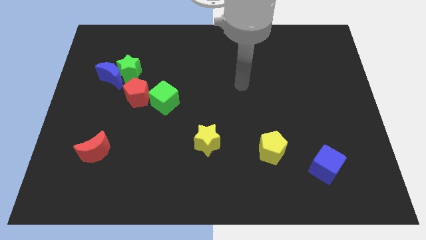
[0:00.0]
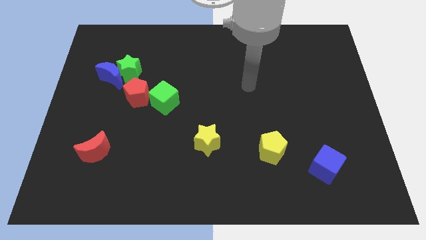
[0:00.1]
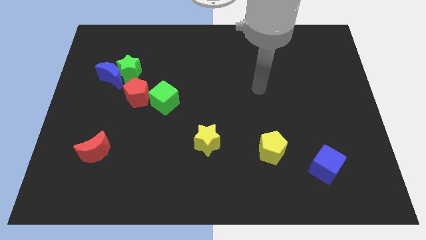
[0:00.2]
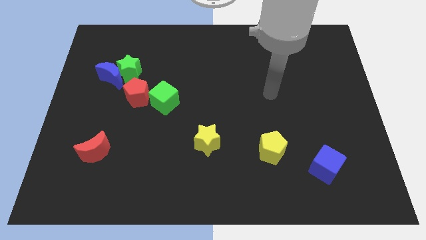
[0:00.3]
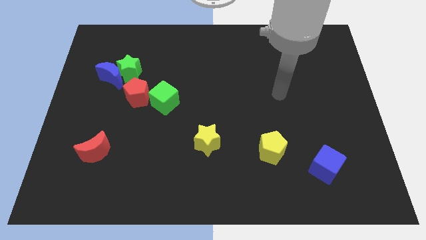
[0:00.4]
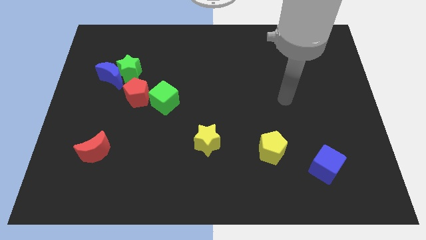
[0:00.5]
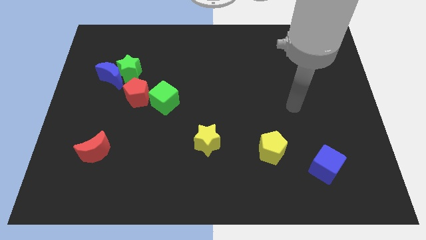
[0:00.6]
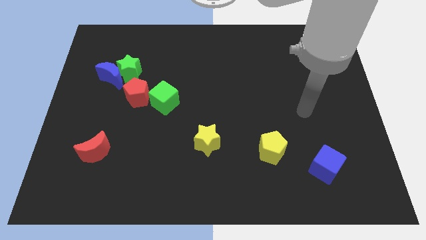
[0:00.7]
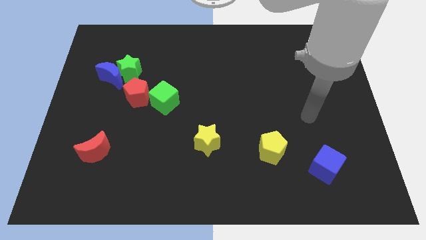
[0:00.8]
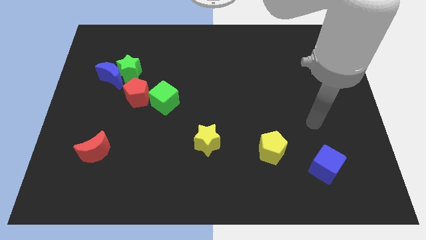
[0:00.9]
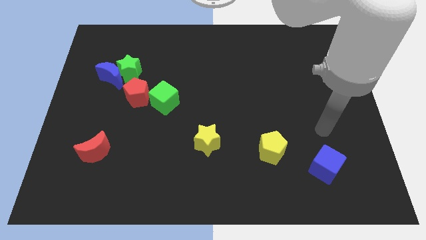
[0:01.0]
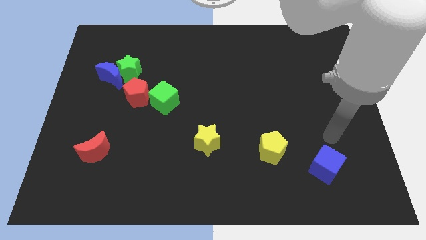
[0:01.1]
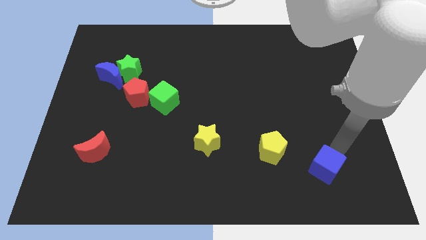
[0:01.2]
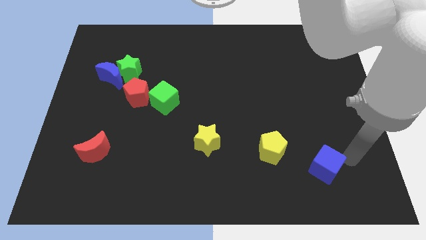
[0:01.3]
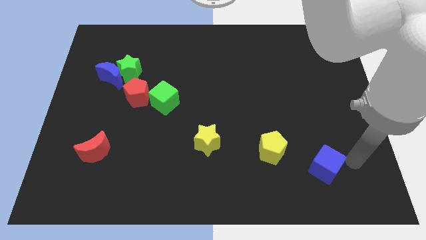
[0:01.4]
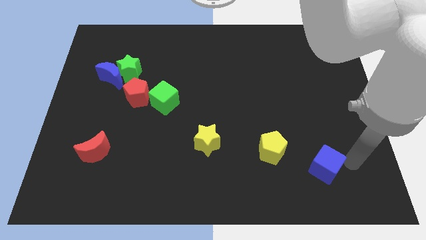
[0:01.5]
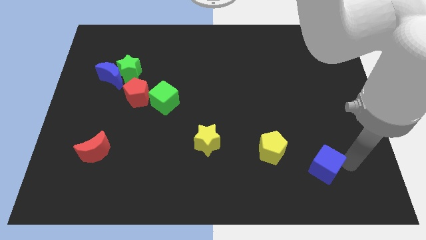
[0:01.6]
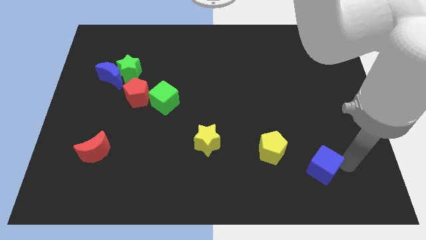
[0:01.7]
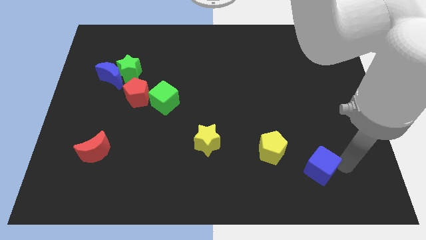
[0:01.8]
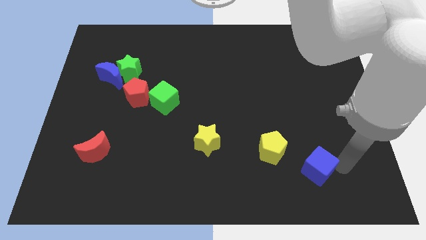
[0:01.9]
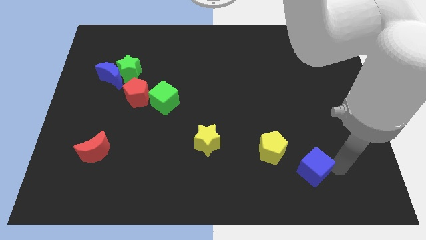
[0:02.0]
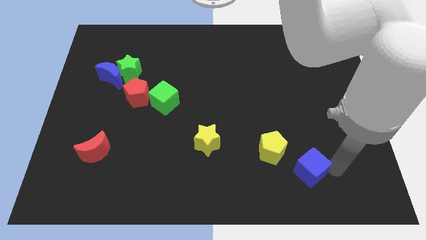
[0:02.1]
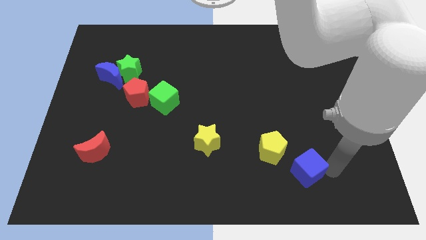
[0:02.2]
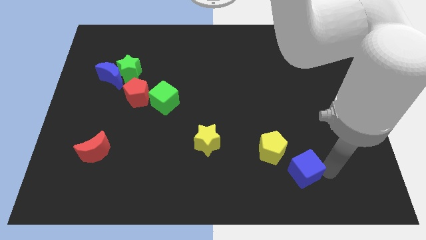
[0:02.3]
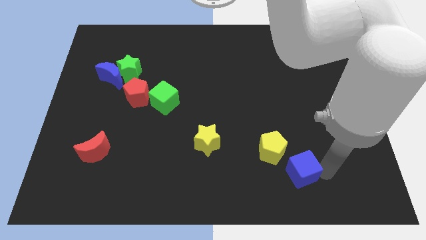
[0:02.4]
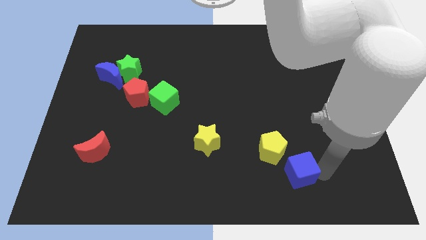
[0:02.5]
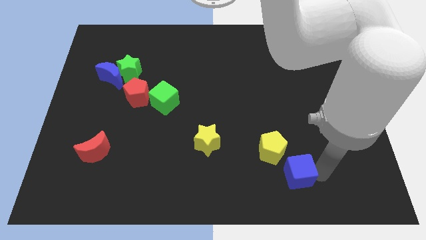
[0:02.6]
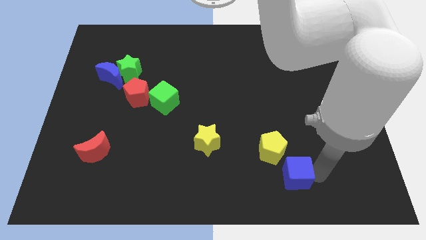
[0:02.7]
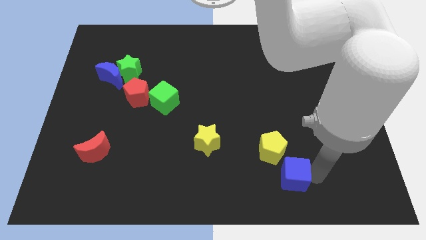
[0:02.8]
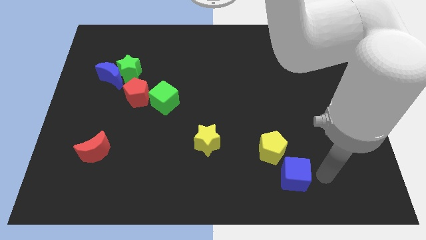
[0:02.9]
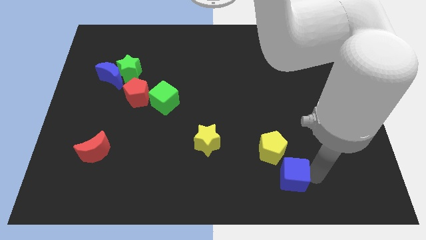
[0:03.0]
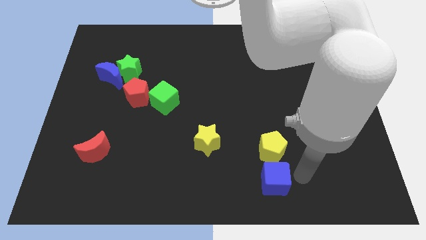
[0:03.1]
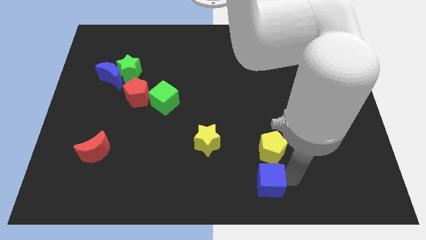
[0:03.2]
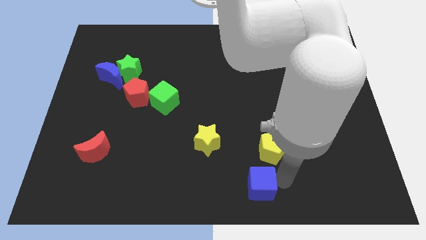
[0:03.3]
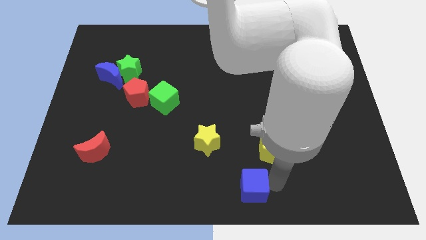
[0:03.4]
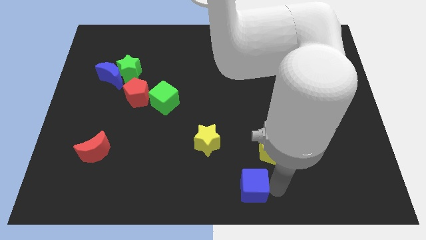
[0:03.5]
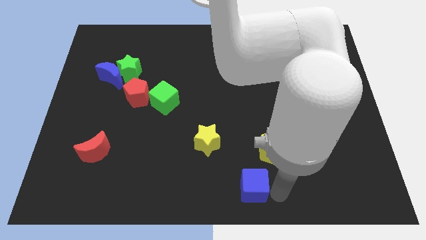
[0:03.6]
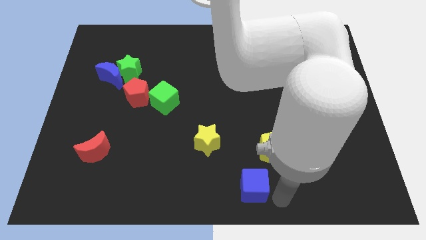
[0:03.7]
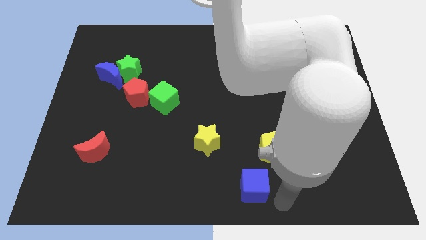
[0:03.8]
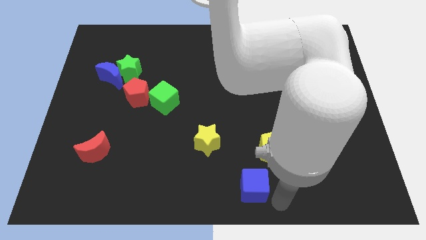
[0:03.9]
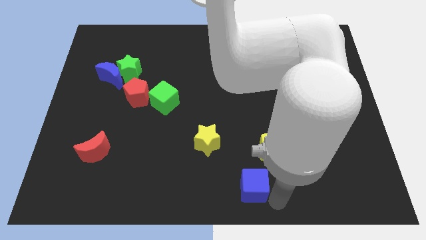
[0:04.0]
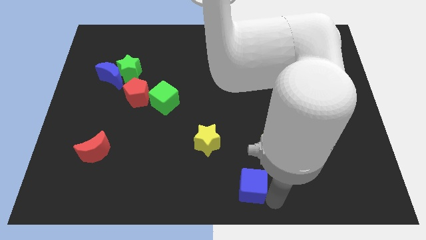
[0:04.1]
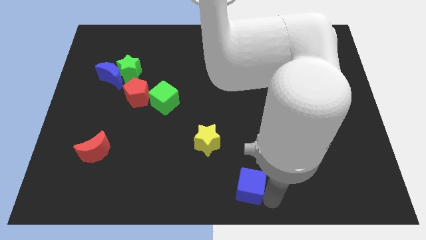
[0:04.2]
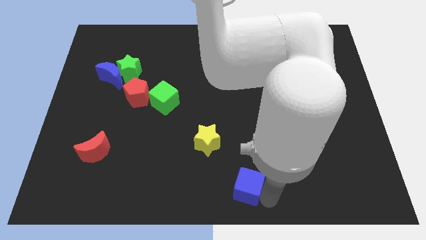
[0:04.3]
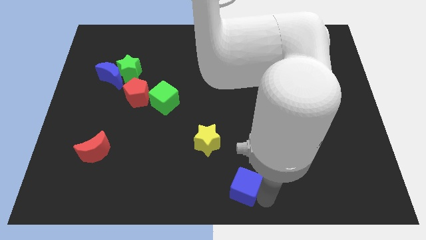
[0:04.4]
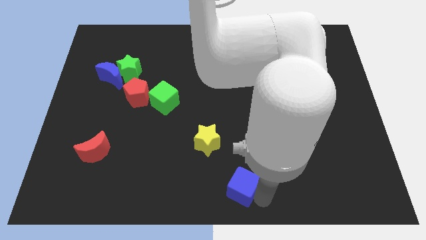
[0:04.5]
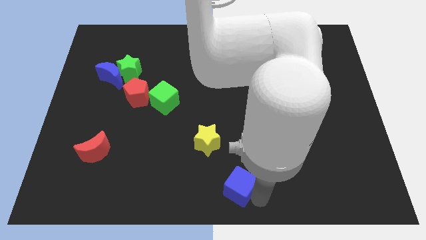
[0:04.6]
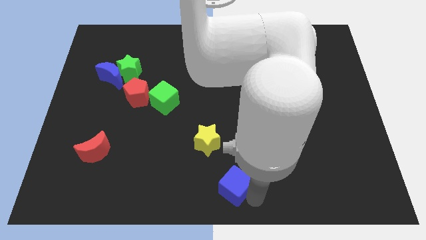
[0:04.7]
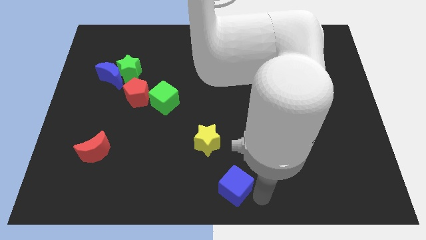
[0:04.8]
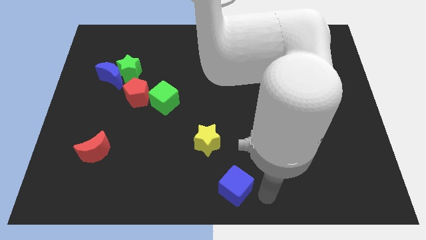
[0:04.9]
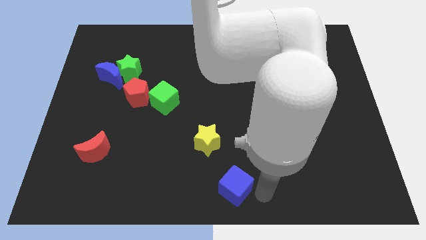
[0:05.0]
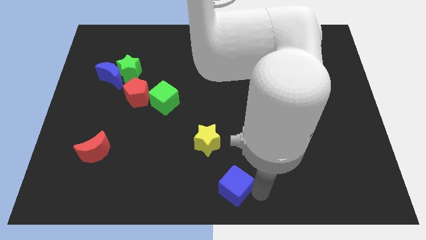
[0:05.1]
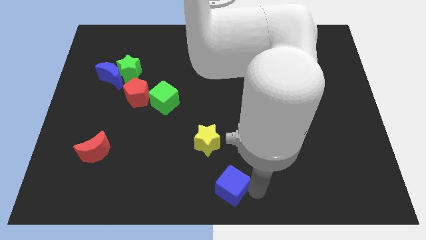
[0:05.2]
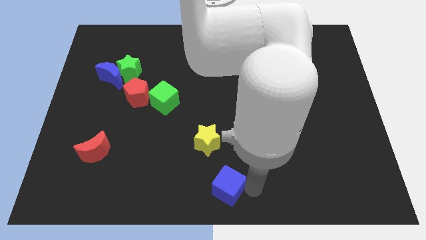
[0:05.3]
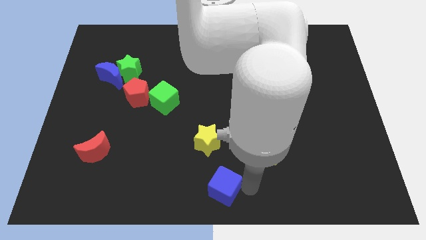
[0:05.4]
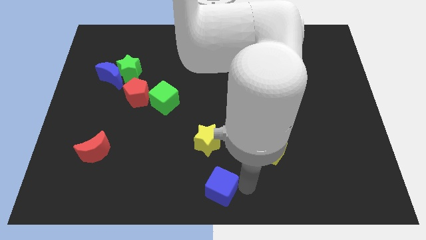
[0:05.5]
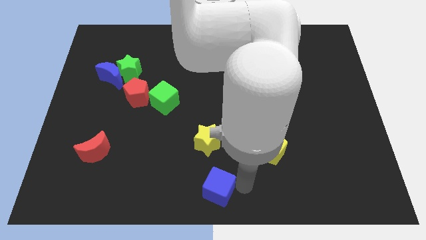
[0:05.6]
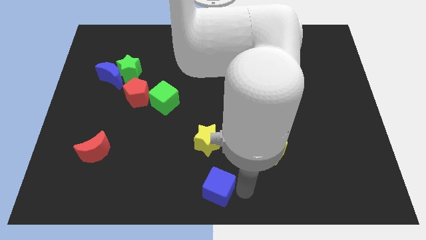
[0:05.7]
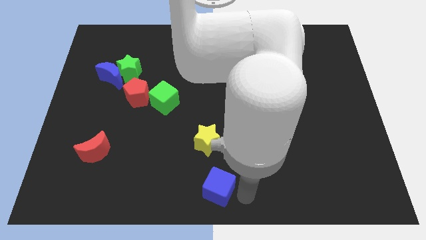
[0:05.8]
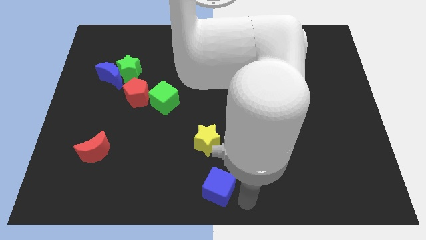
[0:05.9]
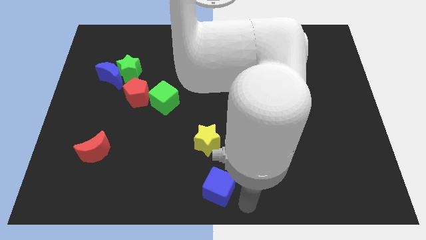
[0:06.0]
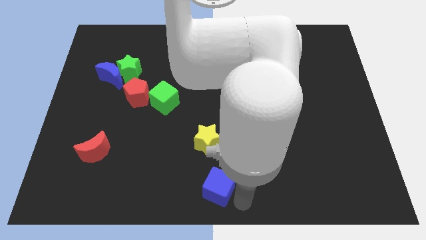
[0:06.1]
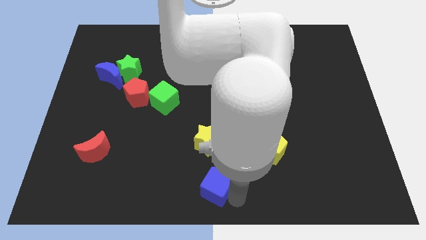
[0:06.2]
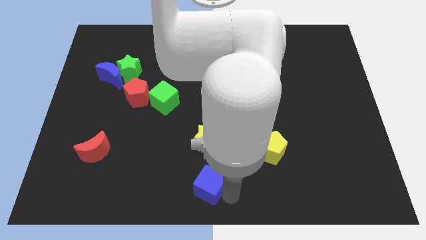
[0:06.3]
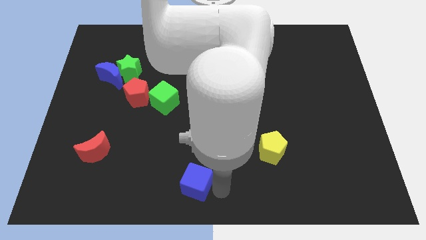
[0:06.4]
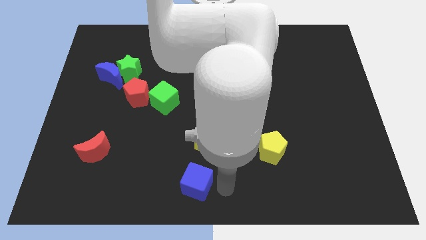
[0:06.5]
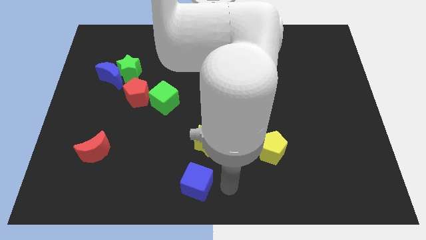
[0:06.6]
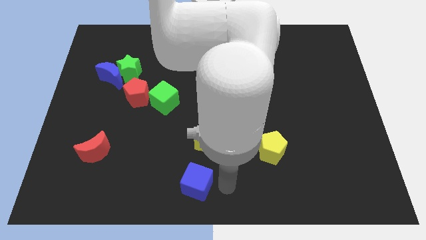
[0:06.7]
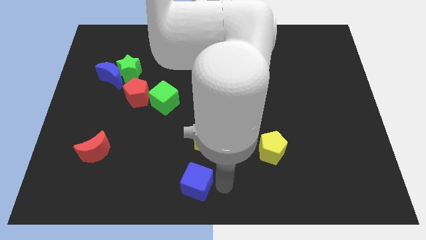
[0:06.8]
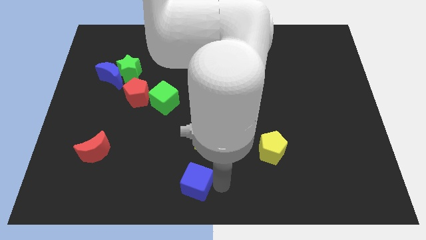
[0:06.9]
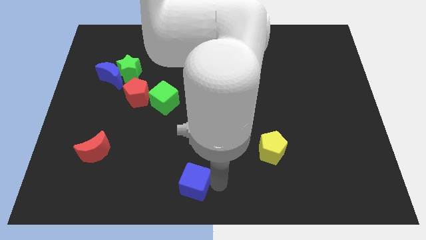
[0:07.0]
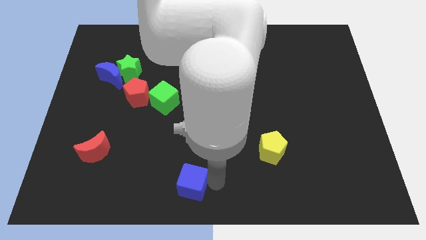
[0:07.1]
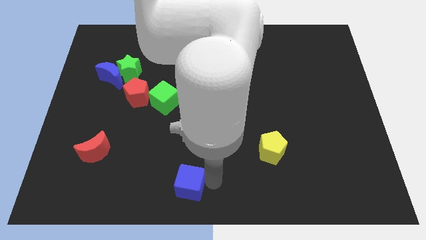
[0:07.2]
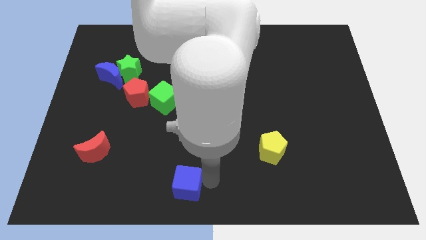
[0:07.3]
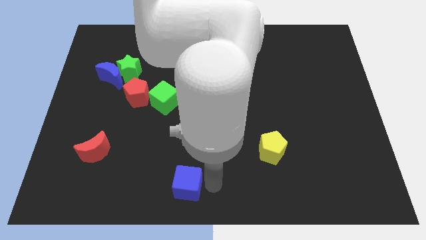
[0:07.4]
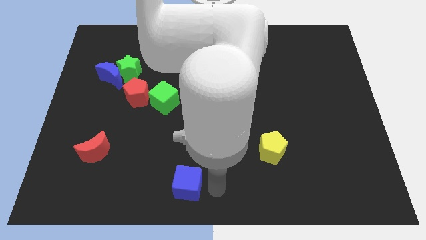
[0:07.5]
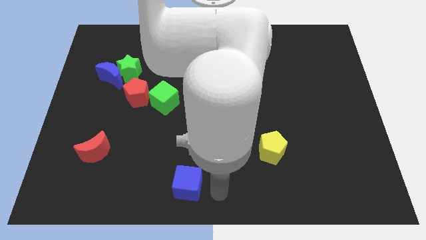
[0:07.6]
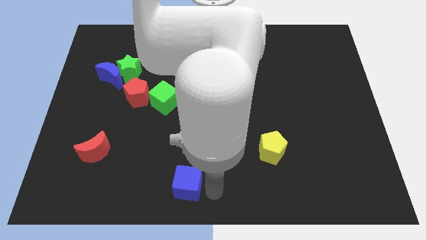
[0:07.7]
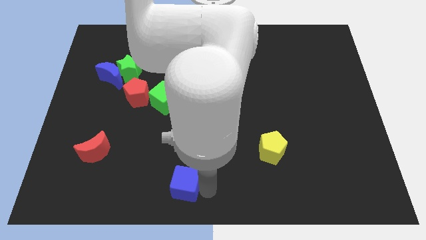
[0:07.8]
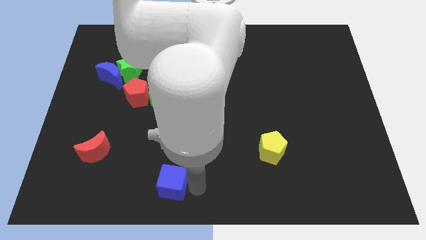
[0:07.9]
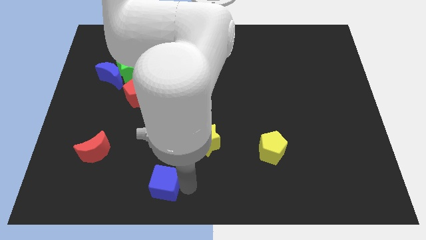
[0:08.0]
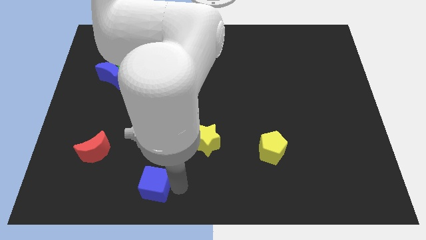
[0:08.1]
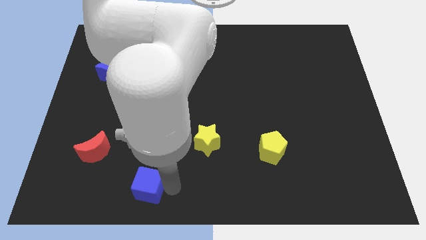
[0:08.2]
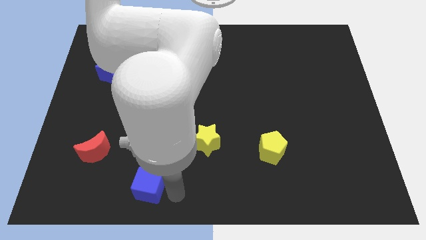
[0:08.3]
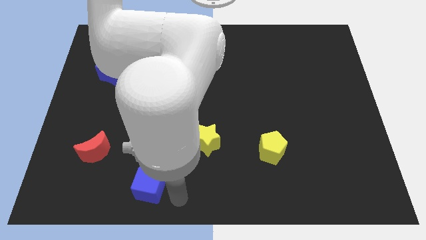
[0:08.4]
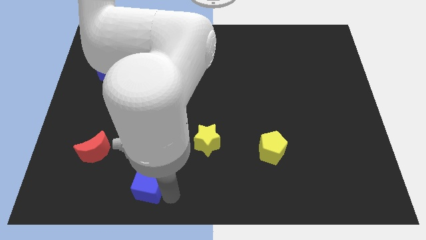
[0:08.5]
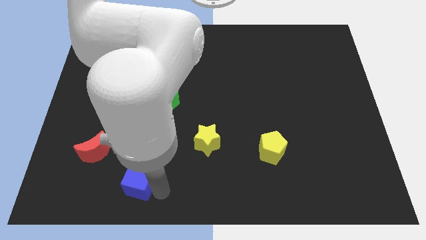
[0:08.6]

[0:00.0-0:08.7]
move the blue cube diagonally down and to the right of the red moon
